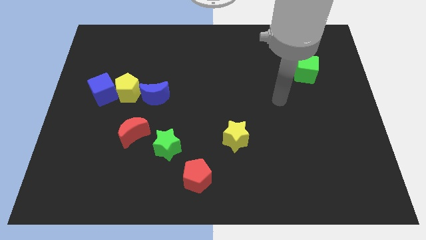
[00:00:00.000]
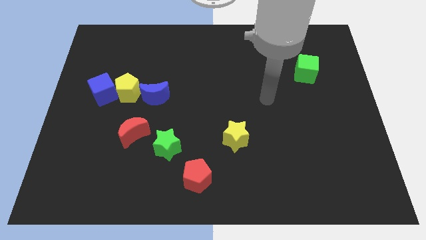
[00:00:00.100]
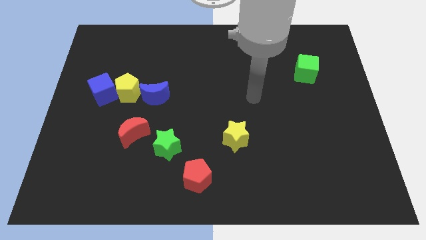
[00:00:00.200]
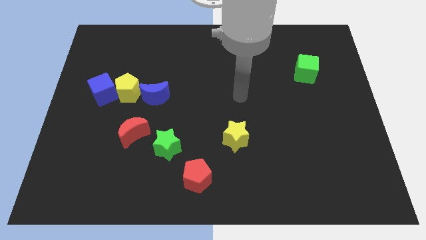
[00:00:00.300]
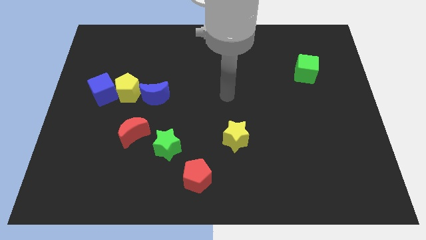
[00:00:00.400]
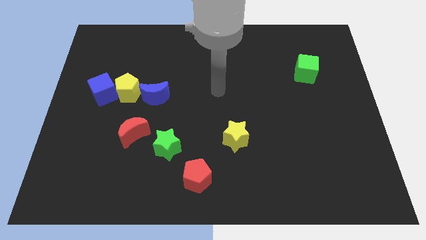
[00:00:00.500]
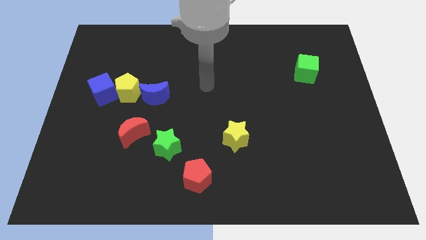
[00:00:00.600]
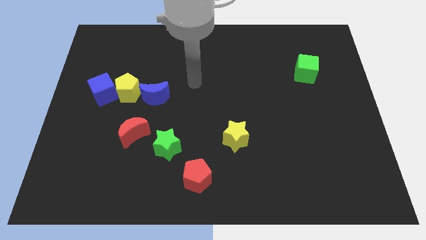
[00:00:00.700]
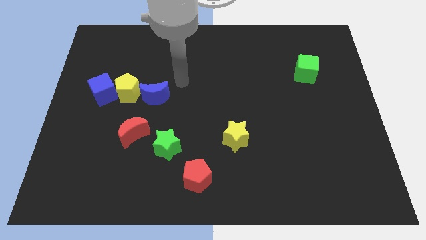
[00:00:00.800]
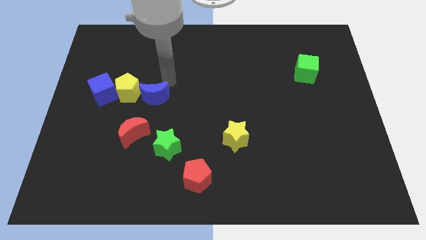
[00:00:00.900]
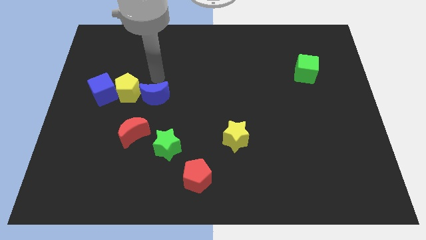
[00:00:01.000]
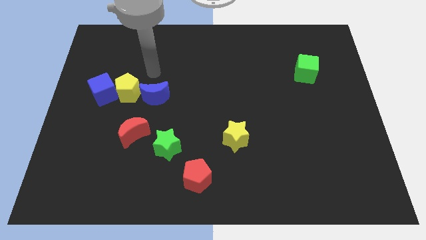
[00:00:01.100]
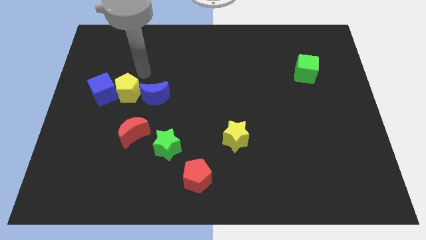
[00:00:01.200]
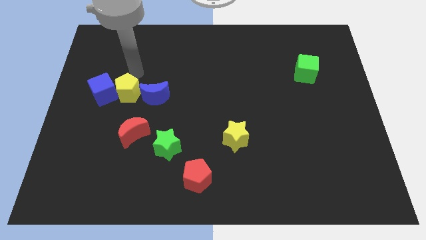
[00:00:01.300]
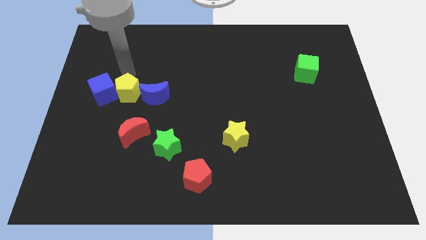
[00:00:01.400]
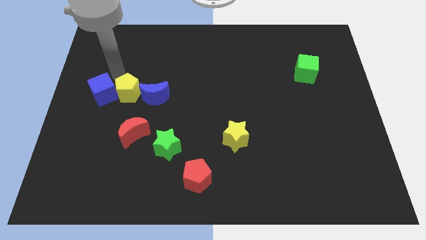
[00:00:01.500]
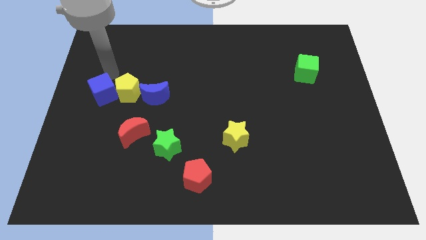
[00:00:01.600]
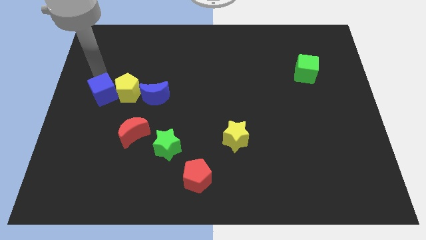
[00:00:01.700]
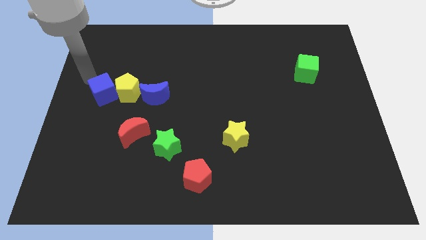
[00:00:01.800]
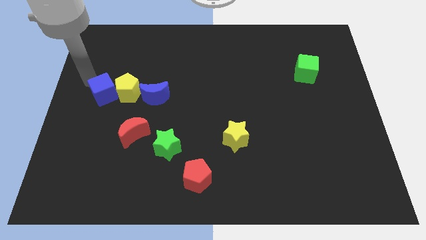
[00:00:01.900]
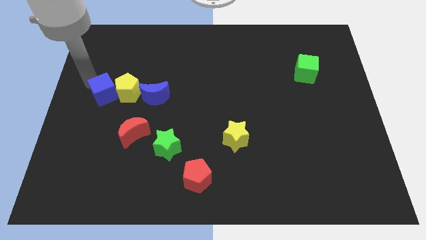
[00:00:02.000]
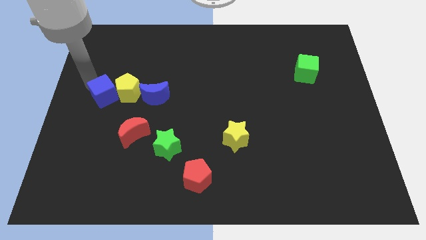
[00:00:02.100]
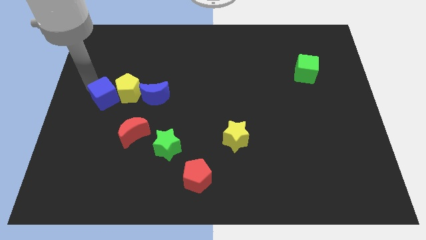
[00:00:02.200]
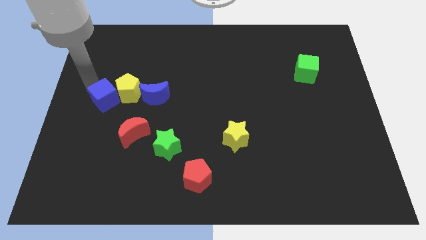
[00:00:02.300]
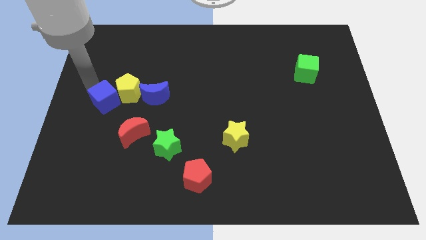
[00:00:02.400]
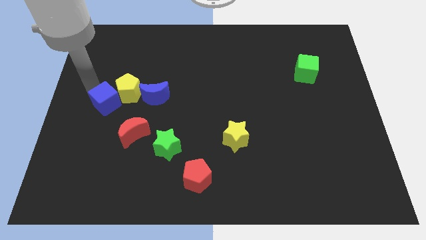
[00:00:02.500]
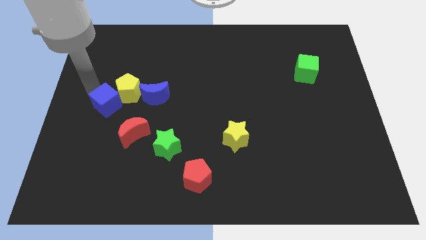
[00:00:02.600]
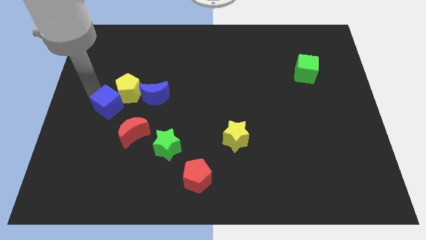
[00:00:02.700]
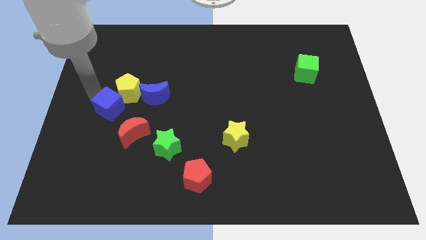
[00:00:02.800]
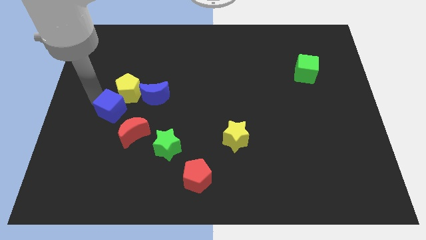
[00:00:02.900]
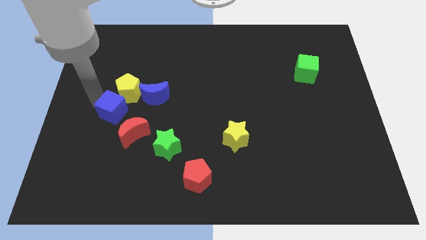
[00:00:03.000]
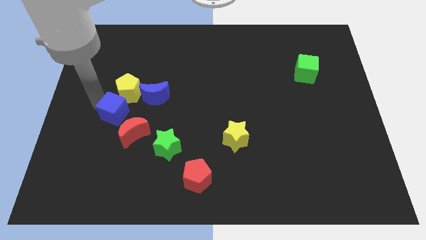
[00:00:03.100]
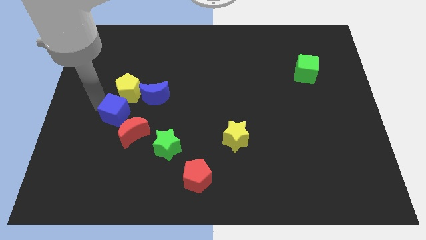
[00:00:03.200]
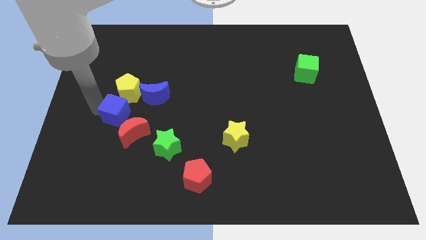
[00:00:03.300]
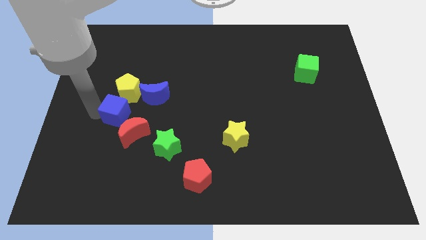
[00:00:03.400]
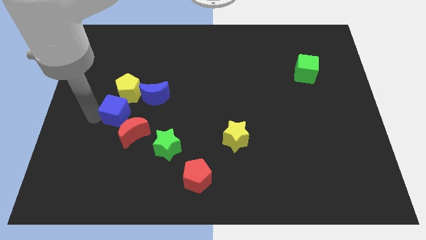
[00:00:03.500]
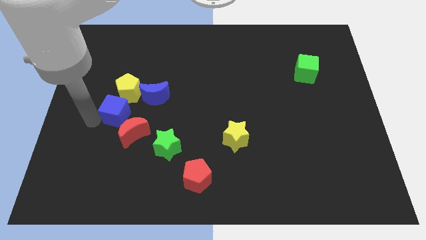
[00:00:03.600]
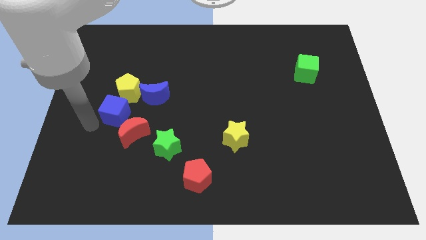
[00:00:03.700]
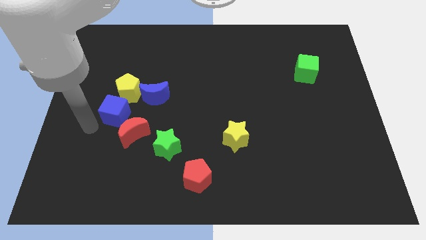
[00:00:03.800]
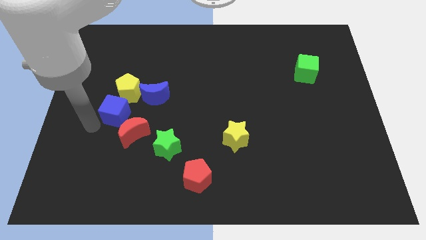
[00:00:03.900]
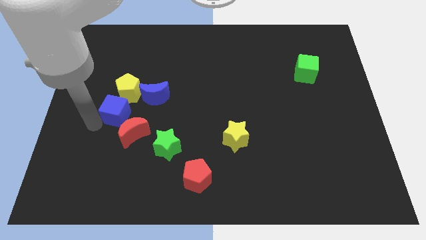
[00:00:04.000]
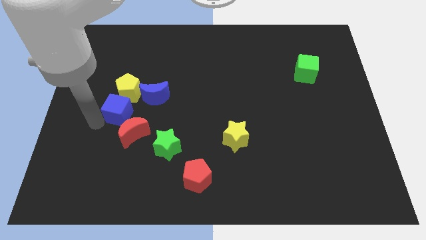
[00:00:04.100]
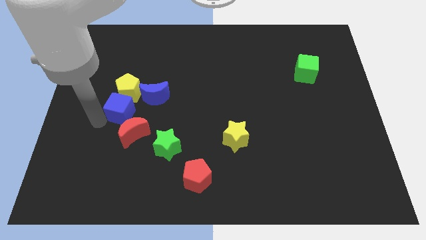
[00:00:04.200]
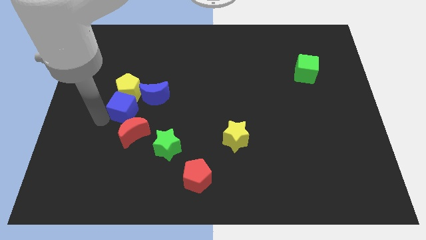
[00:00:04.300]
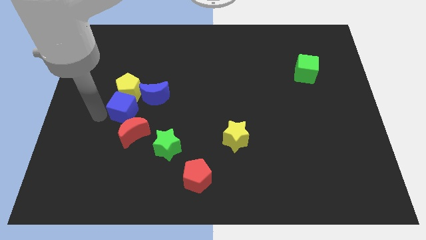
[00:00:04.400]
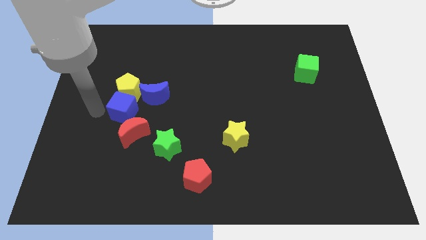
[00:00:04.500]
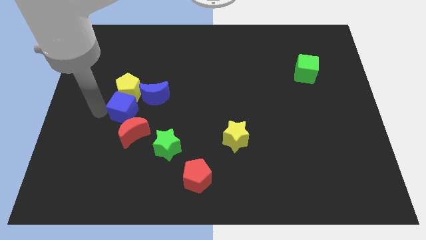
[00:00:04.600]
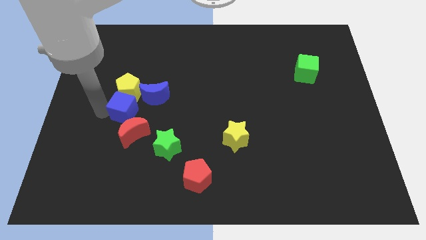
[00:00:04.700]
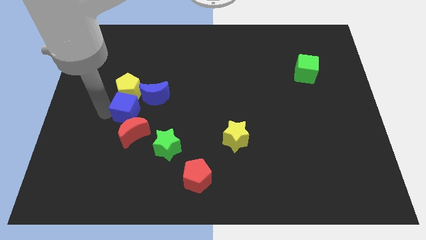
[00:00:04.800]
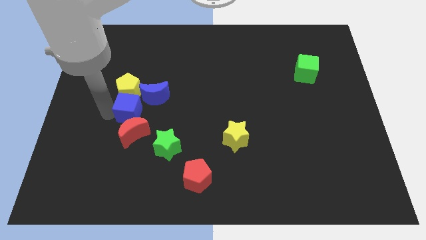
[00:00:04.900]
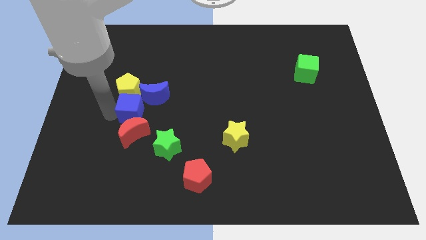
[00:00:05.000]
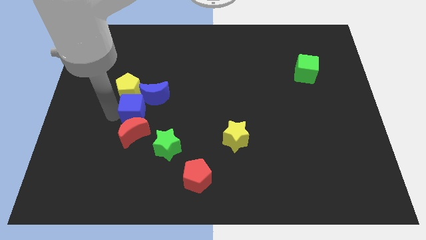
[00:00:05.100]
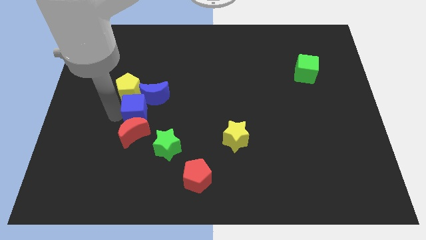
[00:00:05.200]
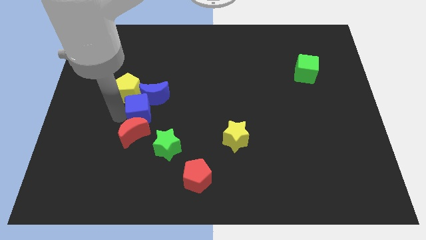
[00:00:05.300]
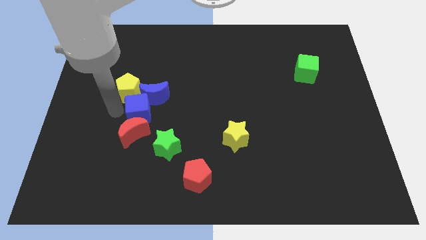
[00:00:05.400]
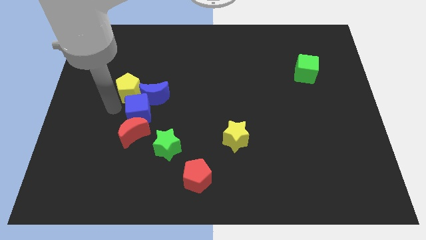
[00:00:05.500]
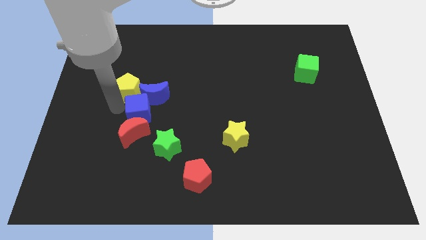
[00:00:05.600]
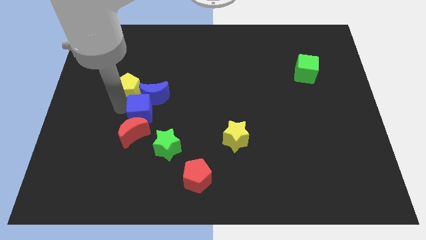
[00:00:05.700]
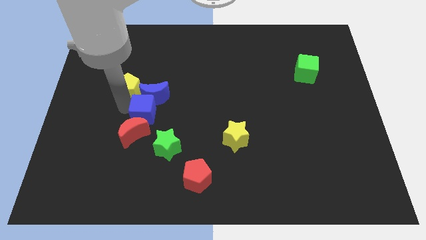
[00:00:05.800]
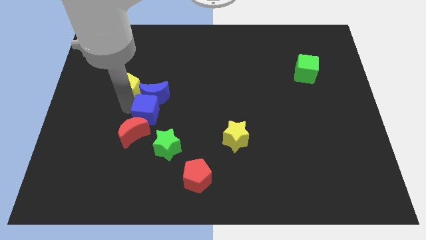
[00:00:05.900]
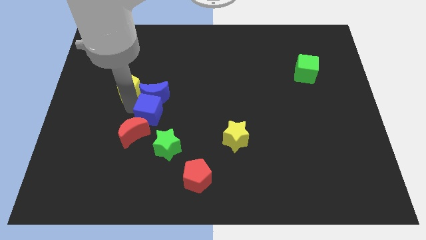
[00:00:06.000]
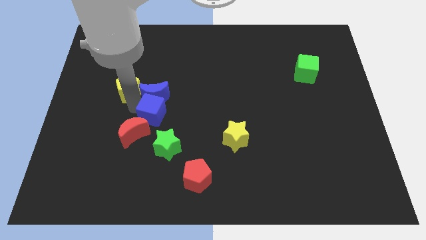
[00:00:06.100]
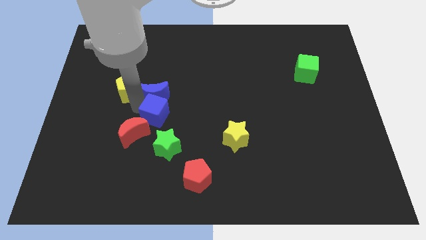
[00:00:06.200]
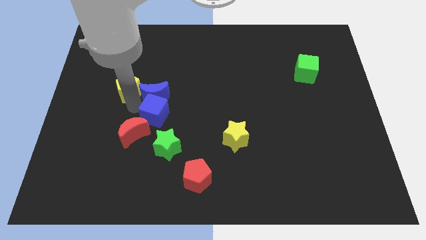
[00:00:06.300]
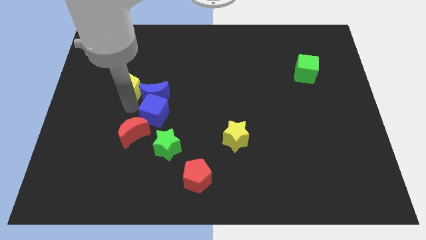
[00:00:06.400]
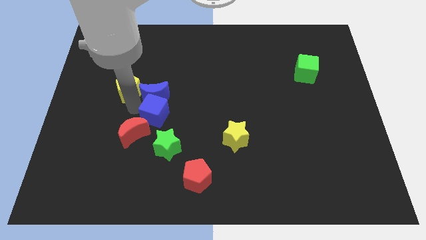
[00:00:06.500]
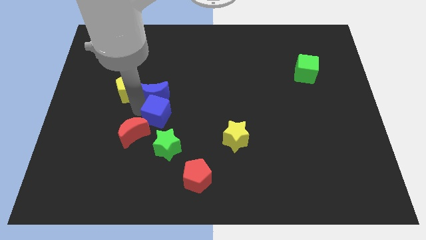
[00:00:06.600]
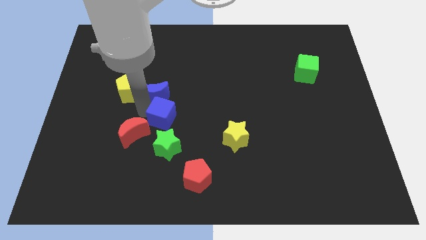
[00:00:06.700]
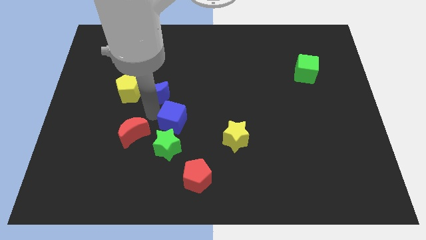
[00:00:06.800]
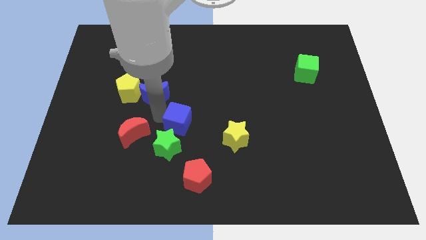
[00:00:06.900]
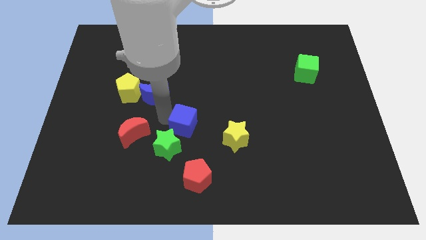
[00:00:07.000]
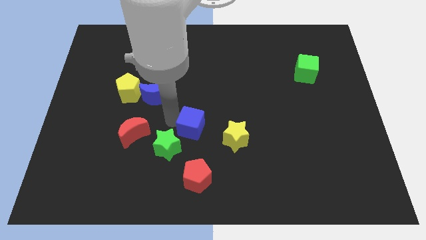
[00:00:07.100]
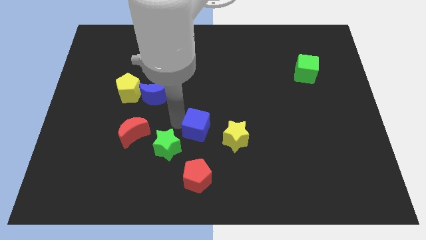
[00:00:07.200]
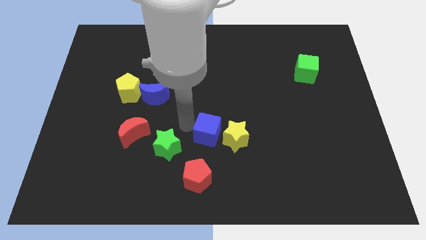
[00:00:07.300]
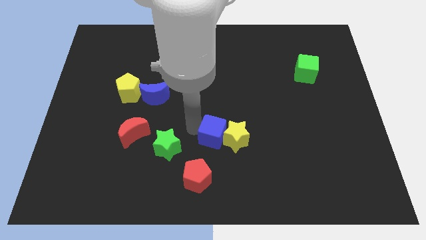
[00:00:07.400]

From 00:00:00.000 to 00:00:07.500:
move the blue cube next to the yellow star

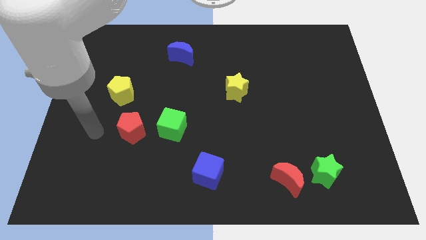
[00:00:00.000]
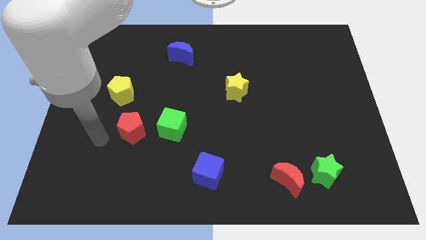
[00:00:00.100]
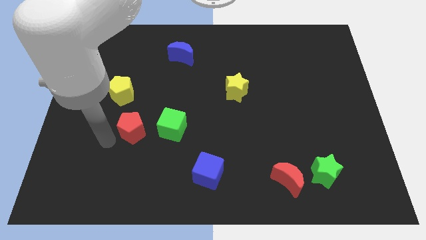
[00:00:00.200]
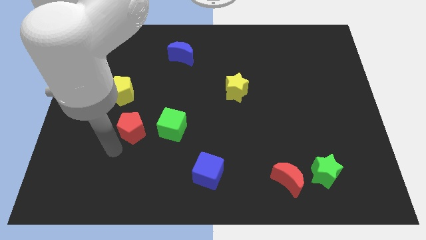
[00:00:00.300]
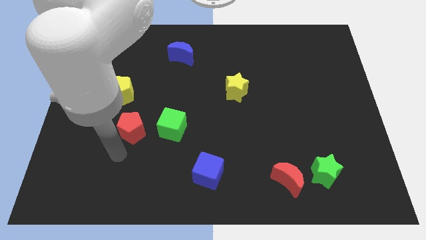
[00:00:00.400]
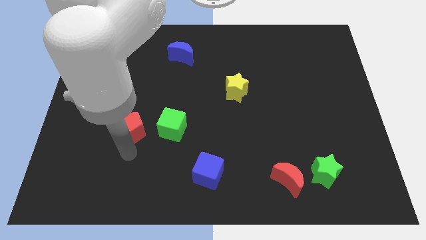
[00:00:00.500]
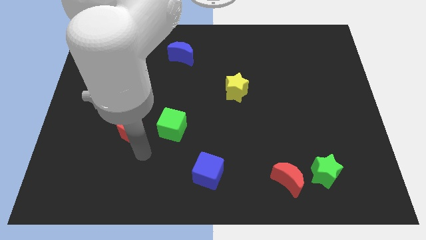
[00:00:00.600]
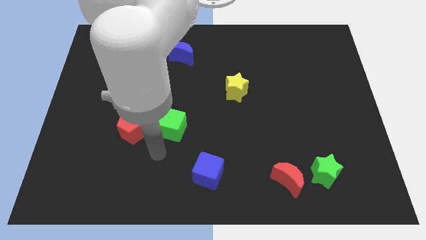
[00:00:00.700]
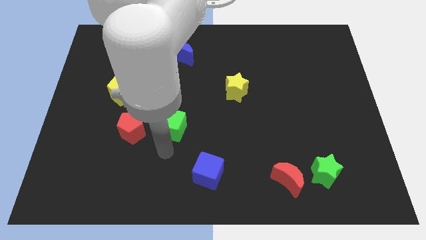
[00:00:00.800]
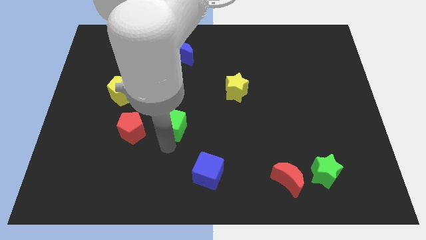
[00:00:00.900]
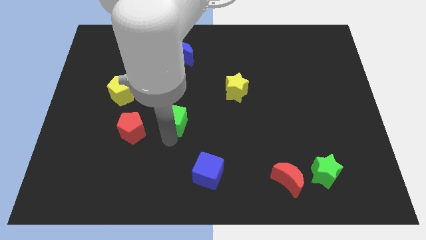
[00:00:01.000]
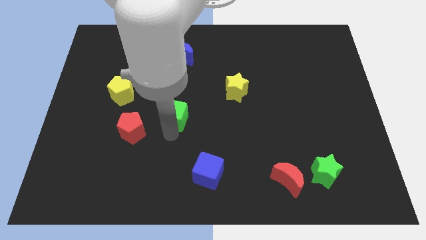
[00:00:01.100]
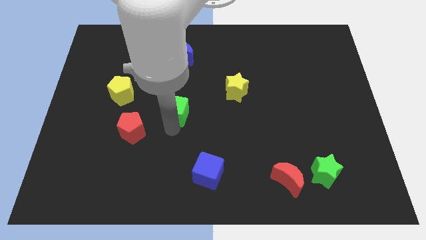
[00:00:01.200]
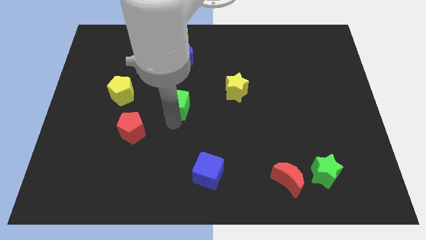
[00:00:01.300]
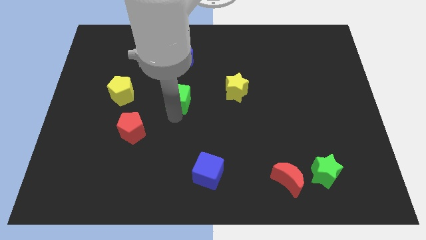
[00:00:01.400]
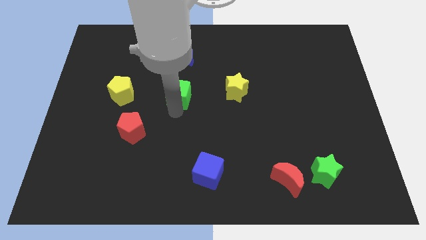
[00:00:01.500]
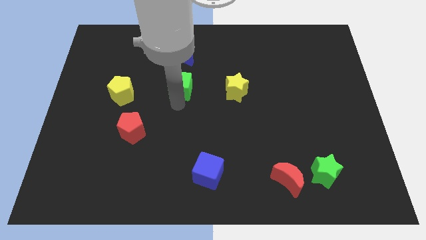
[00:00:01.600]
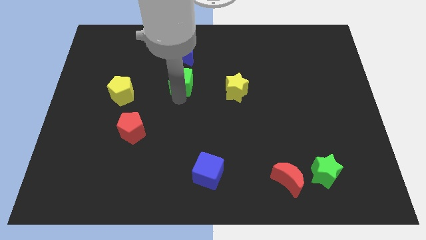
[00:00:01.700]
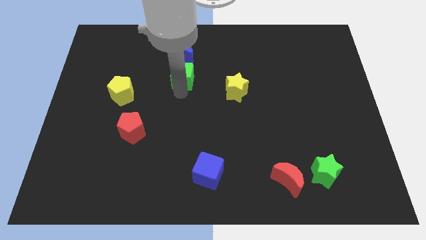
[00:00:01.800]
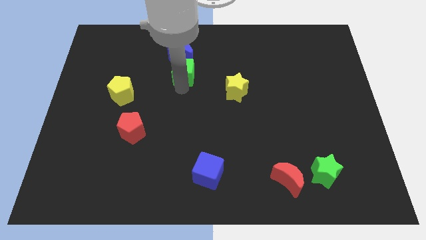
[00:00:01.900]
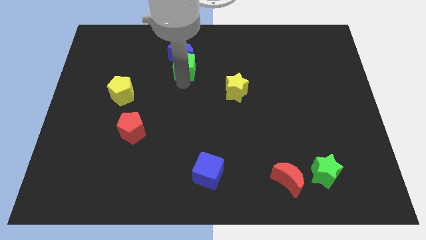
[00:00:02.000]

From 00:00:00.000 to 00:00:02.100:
slide the green cube towards the blue moon
